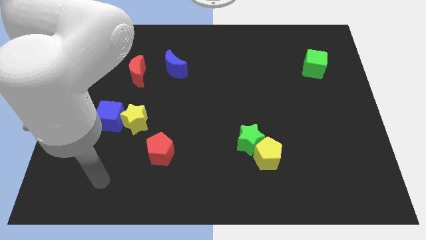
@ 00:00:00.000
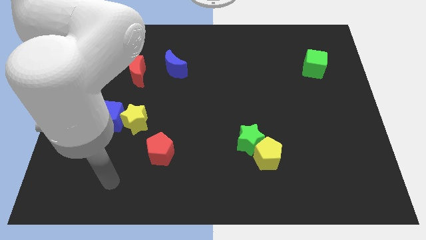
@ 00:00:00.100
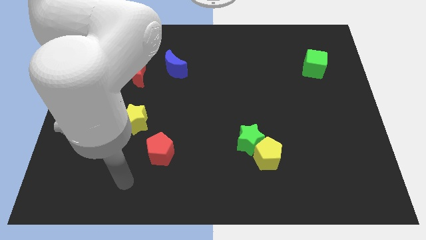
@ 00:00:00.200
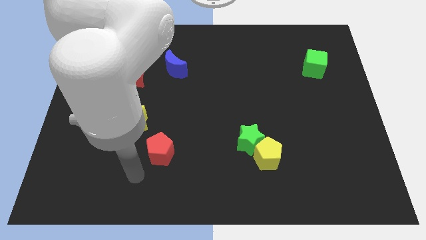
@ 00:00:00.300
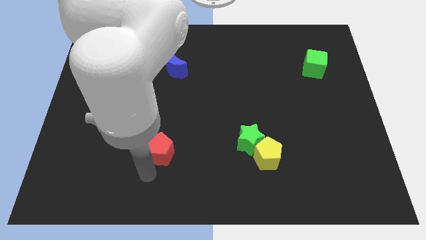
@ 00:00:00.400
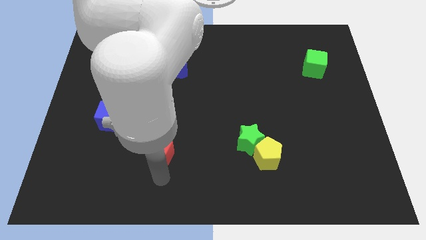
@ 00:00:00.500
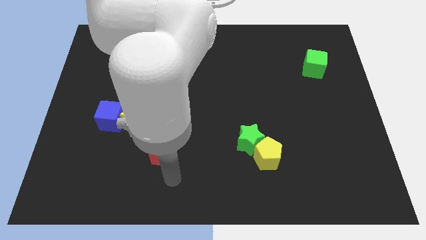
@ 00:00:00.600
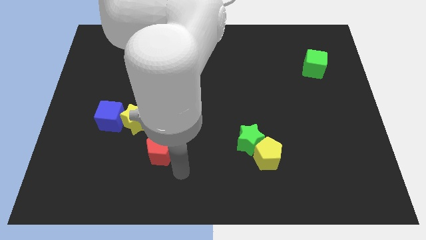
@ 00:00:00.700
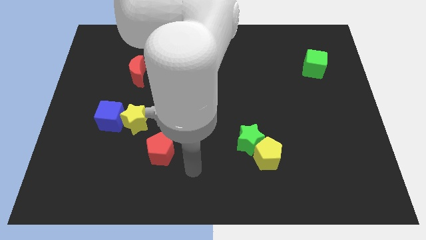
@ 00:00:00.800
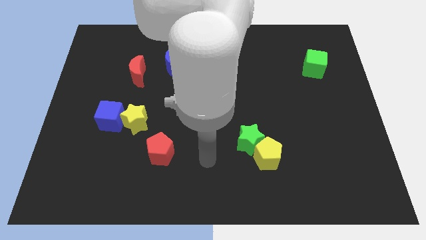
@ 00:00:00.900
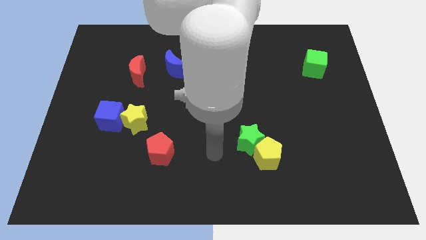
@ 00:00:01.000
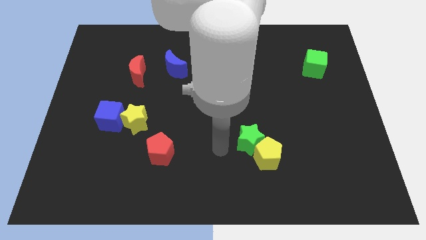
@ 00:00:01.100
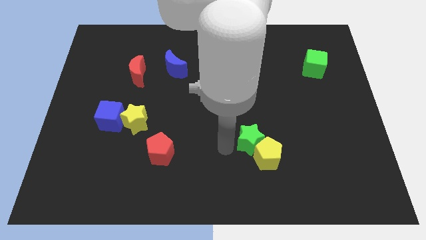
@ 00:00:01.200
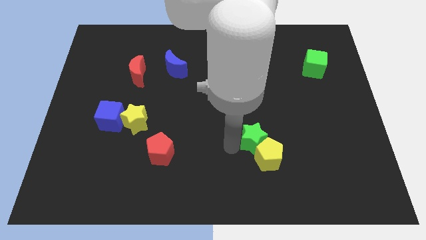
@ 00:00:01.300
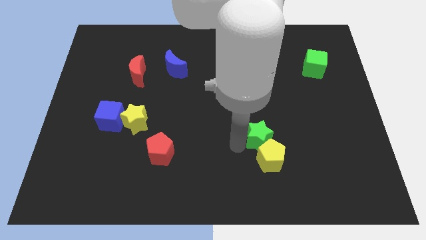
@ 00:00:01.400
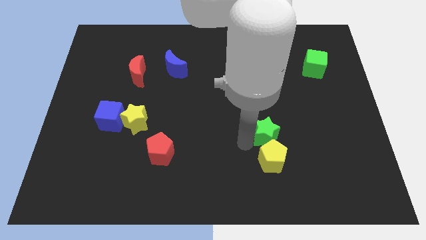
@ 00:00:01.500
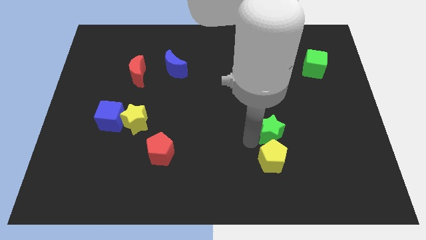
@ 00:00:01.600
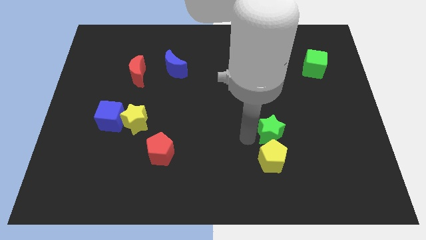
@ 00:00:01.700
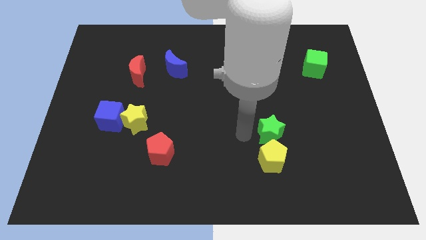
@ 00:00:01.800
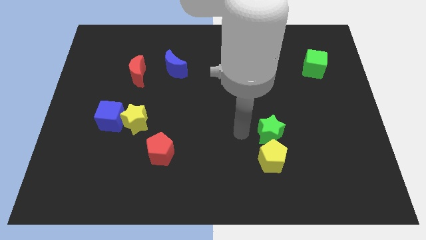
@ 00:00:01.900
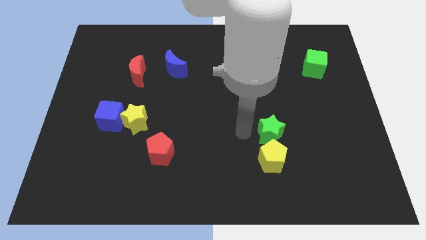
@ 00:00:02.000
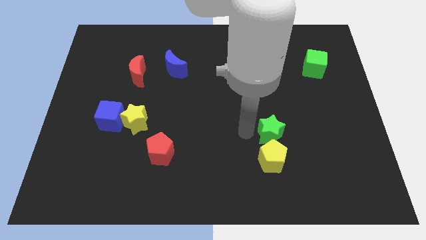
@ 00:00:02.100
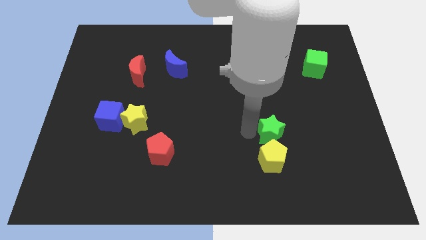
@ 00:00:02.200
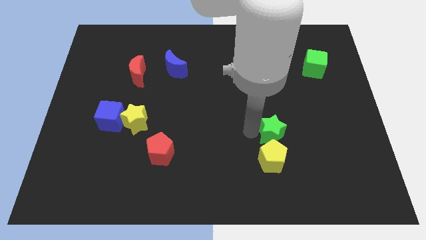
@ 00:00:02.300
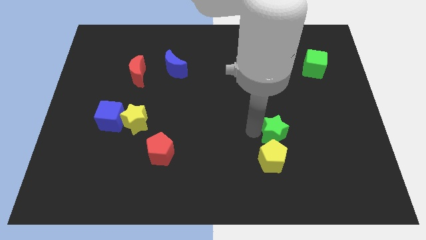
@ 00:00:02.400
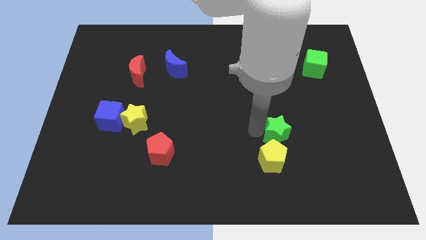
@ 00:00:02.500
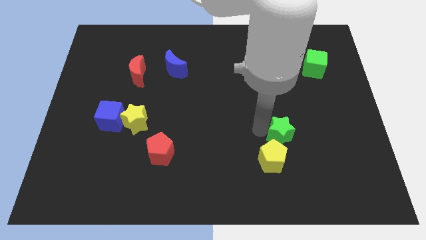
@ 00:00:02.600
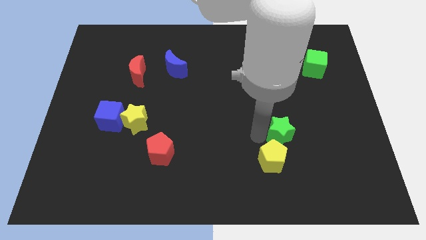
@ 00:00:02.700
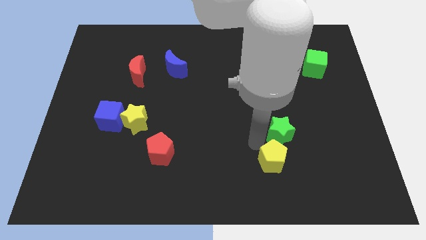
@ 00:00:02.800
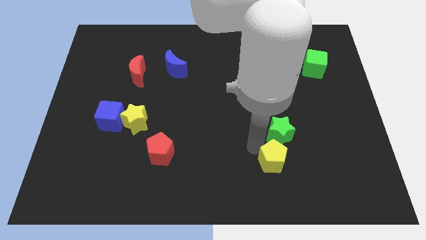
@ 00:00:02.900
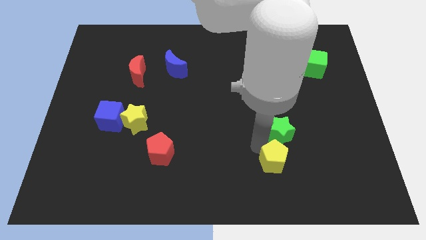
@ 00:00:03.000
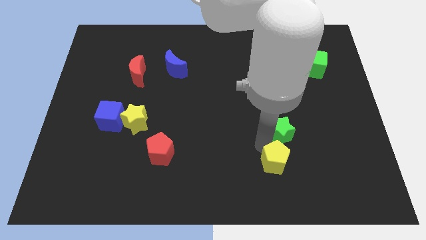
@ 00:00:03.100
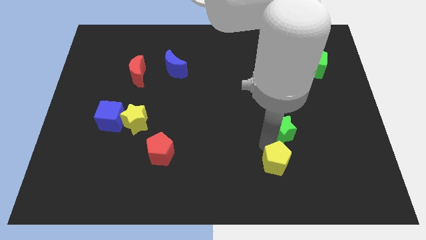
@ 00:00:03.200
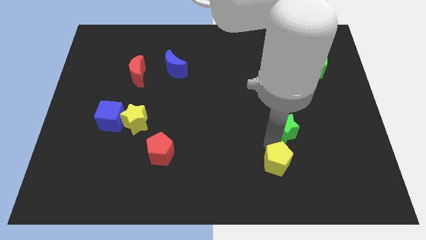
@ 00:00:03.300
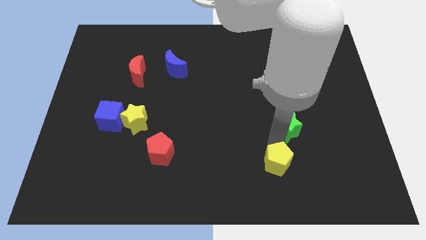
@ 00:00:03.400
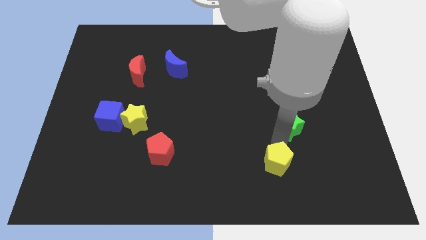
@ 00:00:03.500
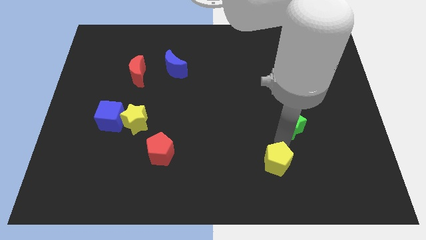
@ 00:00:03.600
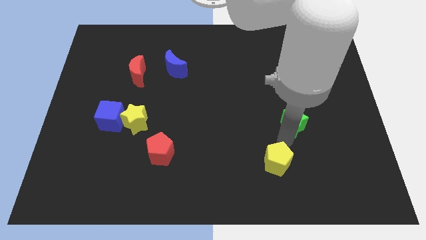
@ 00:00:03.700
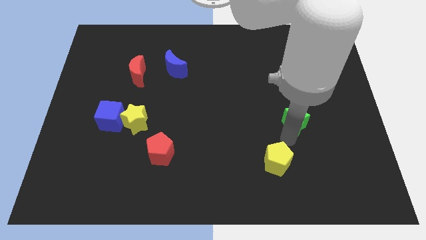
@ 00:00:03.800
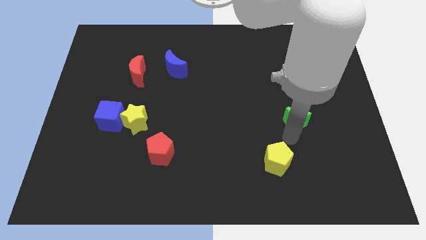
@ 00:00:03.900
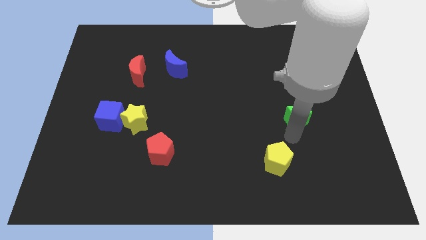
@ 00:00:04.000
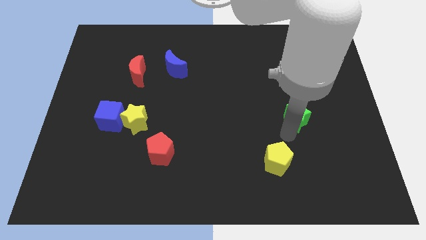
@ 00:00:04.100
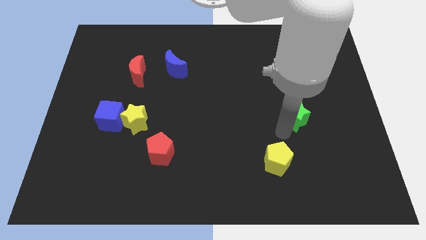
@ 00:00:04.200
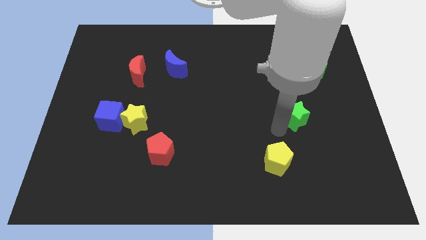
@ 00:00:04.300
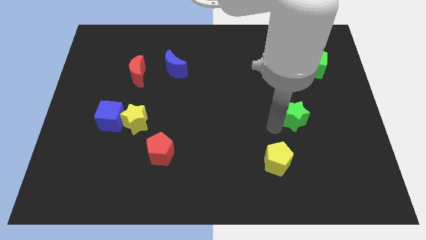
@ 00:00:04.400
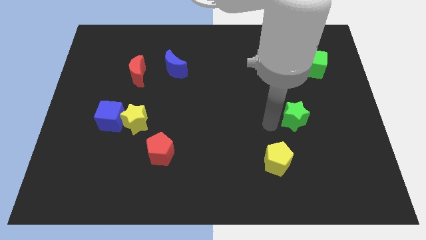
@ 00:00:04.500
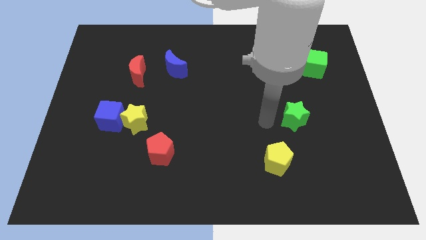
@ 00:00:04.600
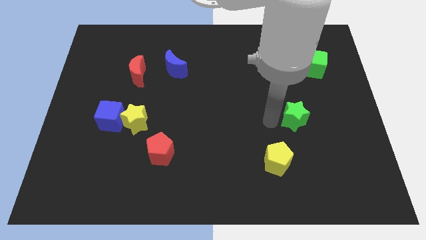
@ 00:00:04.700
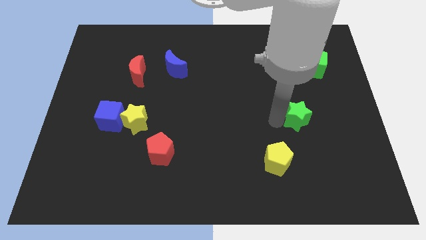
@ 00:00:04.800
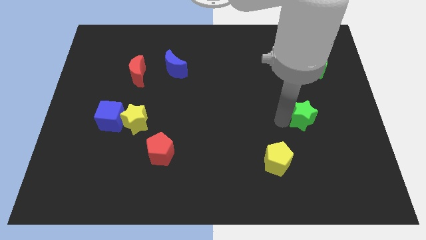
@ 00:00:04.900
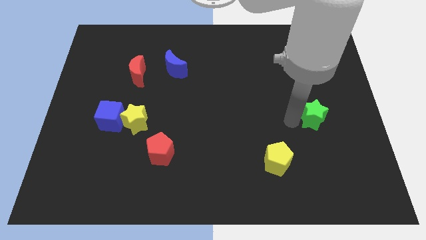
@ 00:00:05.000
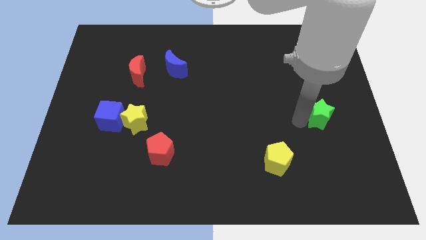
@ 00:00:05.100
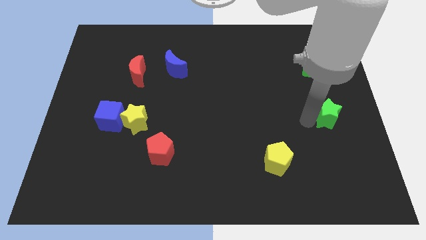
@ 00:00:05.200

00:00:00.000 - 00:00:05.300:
push the green star to the right side
